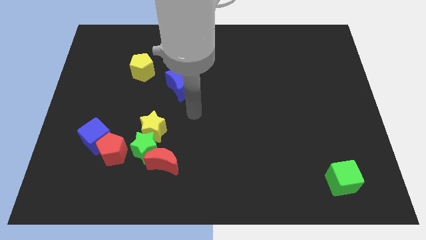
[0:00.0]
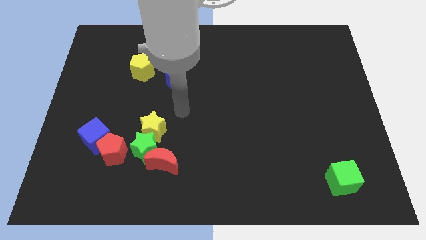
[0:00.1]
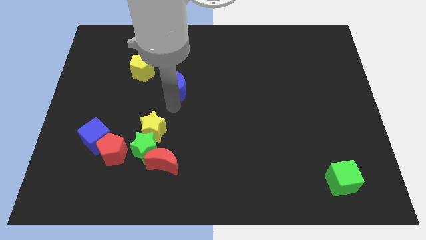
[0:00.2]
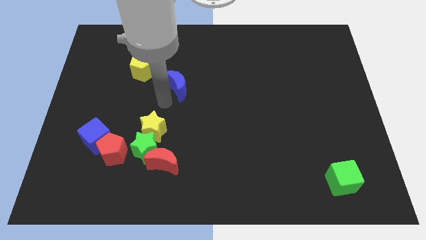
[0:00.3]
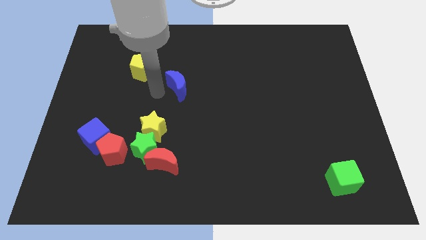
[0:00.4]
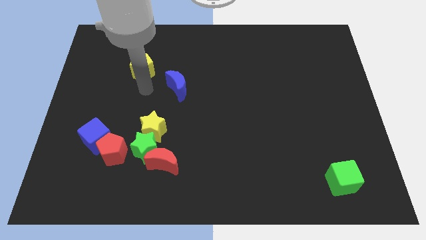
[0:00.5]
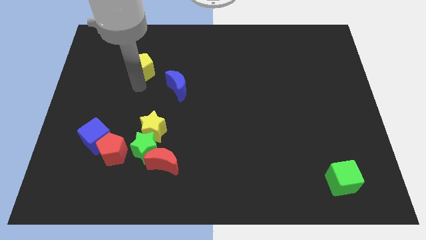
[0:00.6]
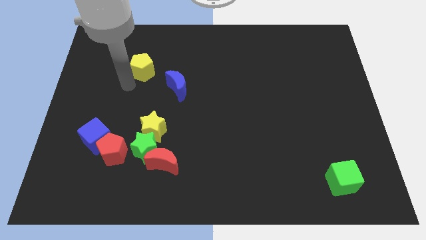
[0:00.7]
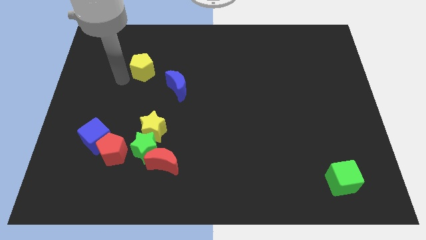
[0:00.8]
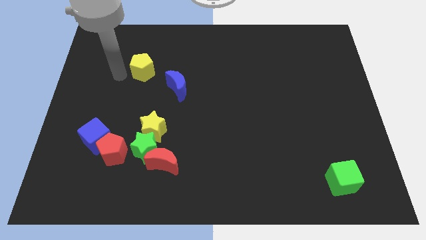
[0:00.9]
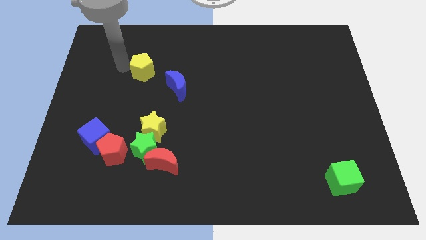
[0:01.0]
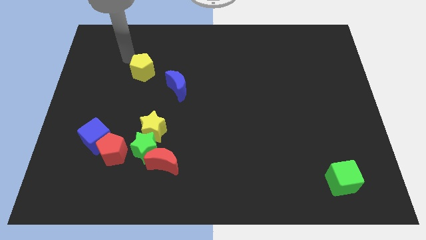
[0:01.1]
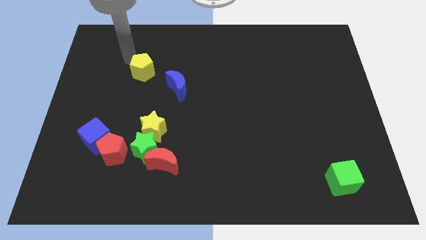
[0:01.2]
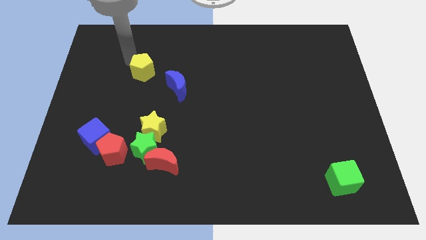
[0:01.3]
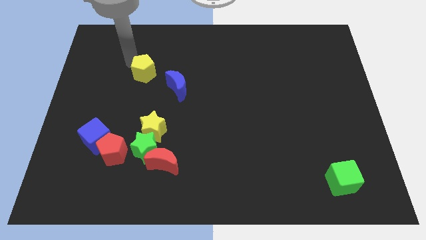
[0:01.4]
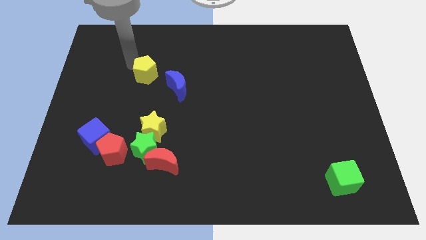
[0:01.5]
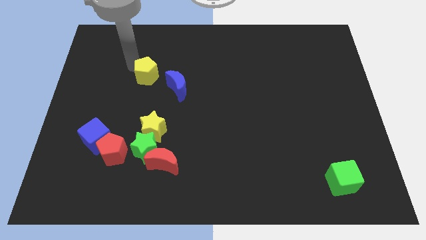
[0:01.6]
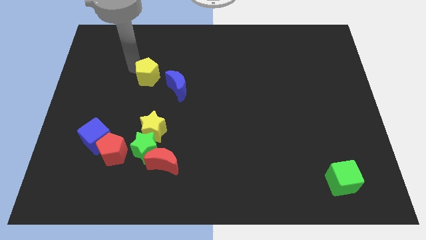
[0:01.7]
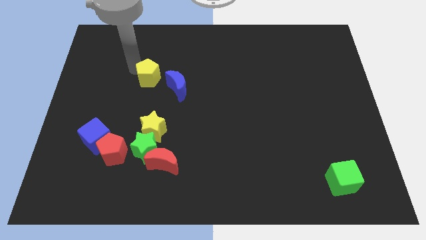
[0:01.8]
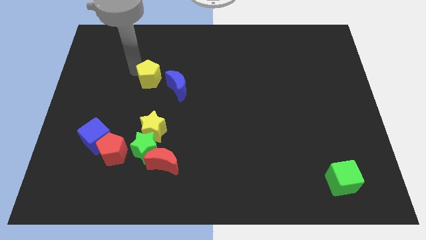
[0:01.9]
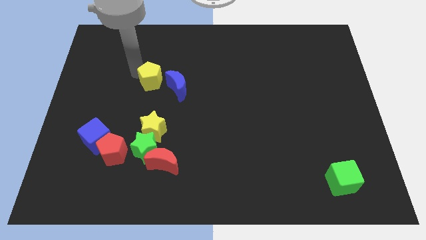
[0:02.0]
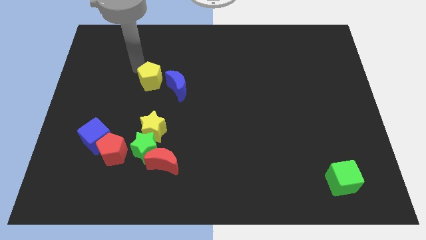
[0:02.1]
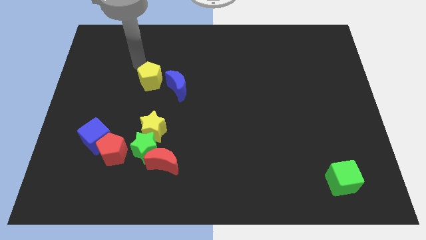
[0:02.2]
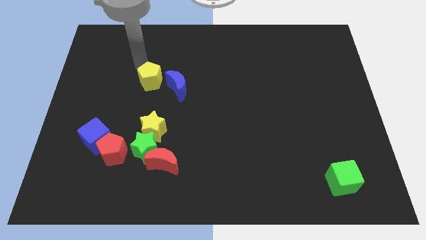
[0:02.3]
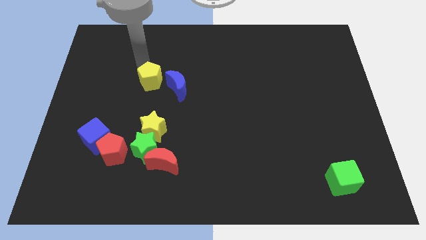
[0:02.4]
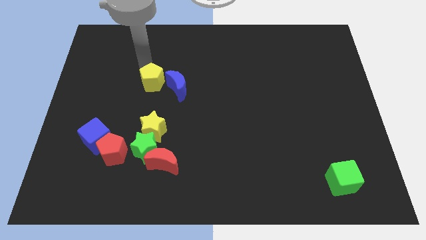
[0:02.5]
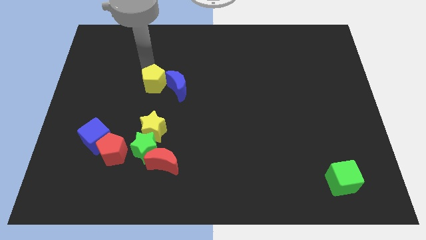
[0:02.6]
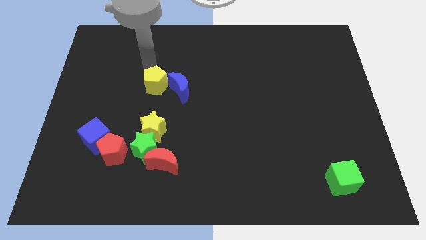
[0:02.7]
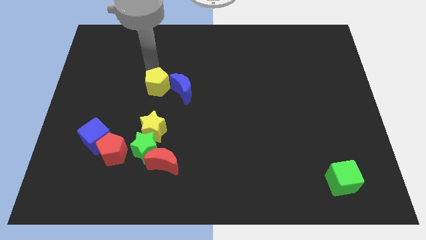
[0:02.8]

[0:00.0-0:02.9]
push the yellow pentagon downwards and then right somewhat

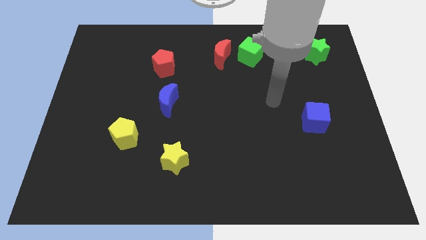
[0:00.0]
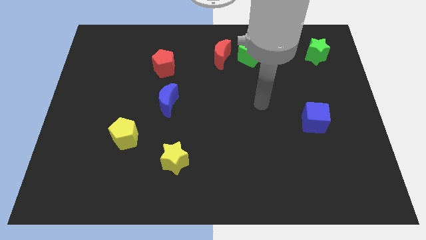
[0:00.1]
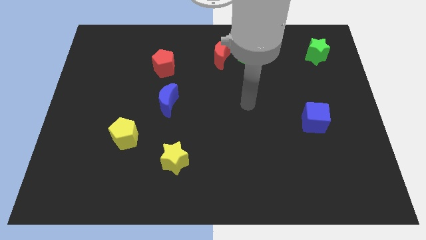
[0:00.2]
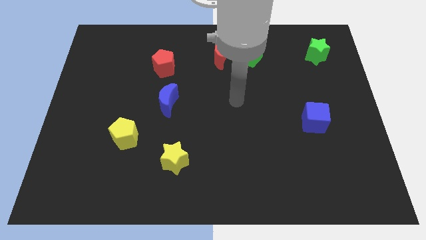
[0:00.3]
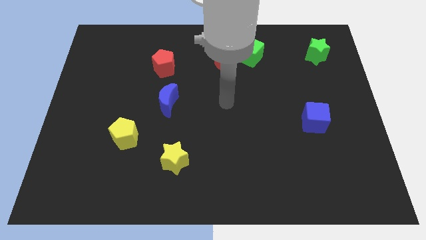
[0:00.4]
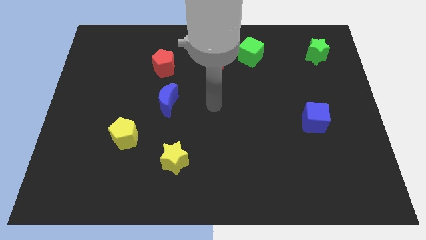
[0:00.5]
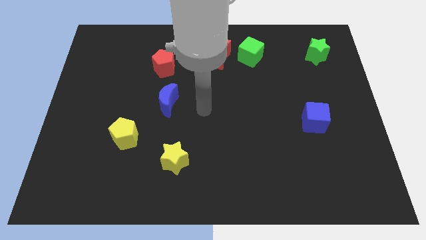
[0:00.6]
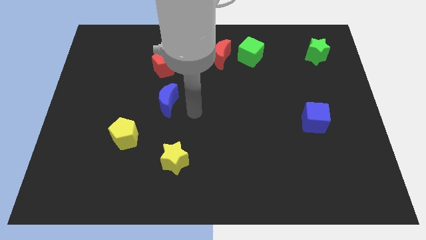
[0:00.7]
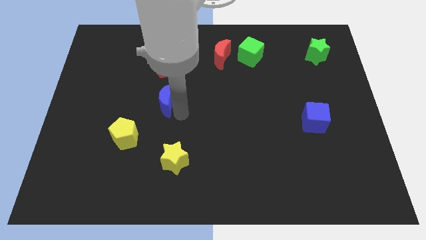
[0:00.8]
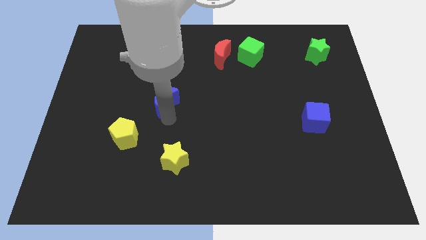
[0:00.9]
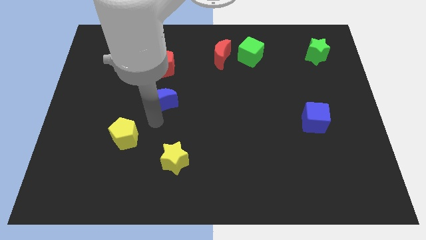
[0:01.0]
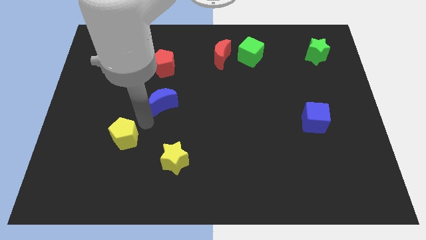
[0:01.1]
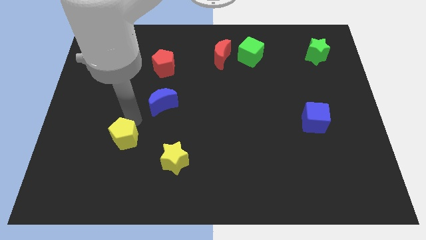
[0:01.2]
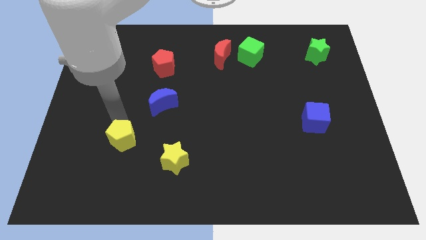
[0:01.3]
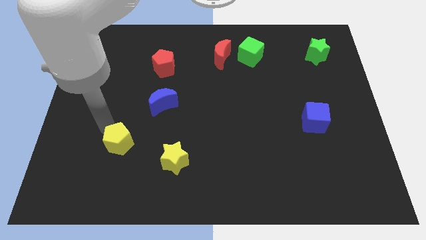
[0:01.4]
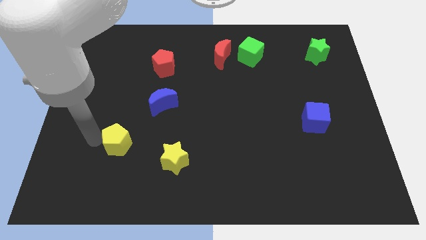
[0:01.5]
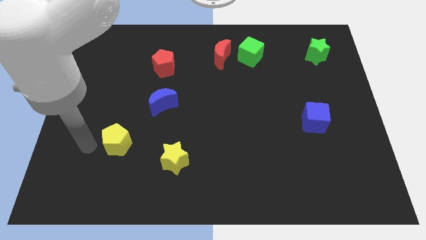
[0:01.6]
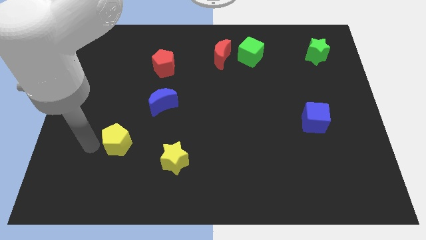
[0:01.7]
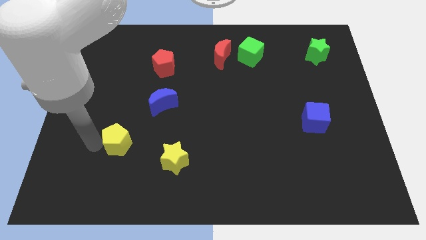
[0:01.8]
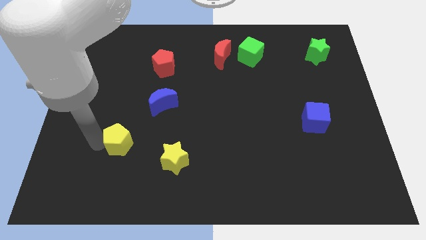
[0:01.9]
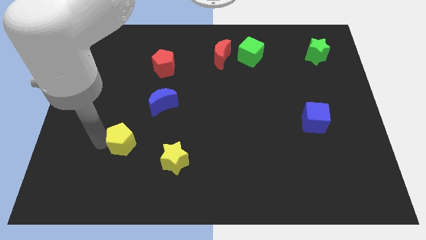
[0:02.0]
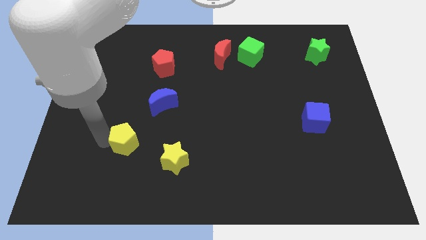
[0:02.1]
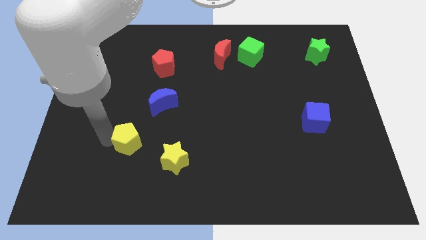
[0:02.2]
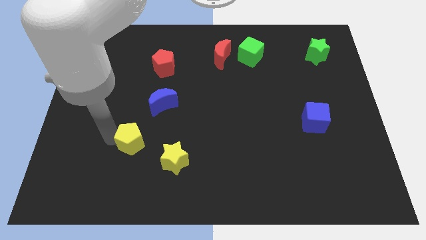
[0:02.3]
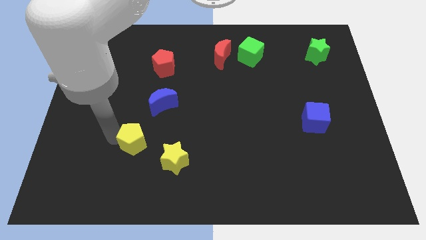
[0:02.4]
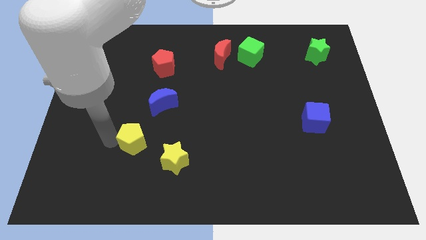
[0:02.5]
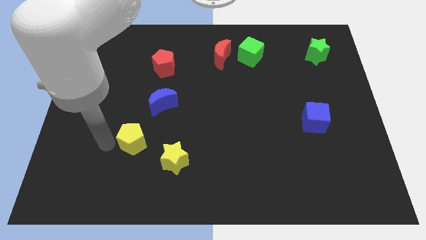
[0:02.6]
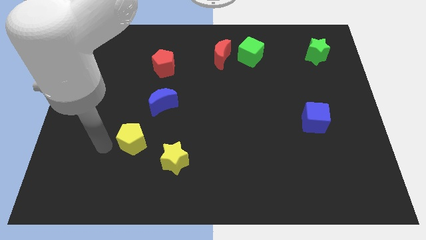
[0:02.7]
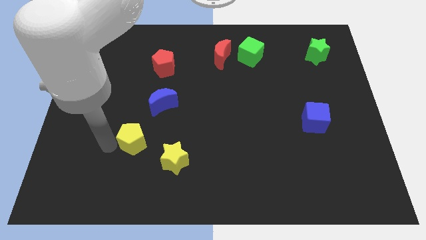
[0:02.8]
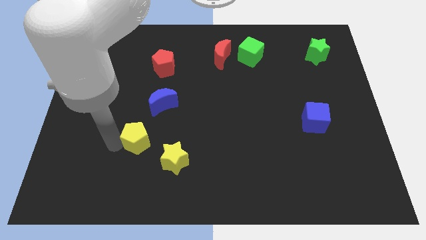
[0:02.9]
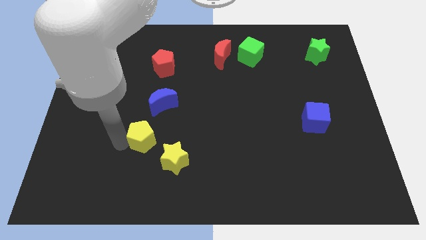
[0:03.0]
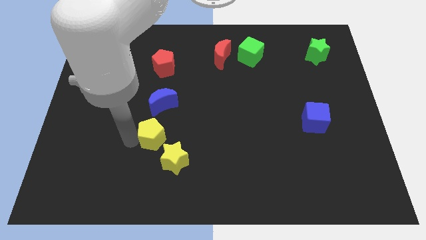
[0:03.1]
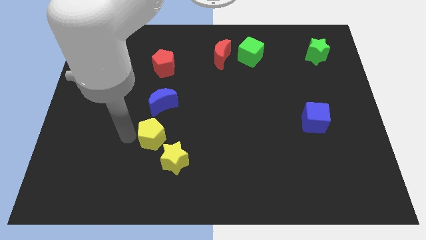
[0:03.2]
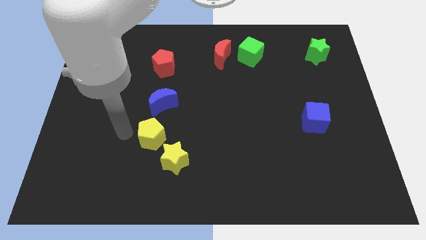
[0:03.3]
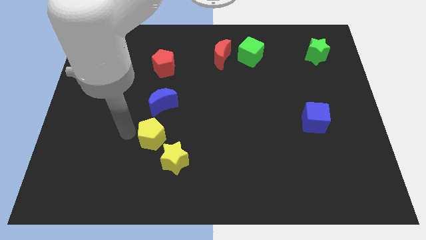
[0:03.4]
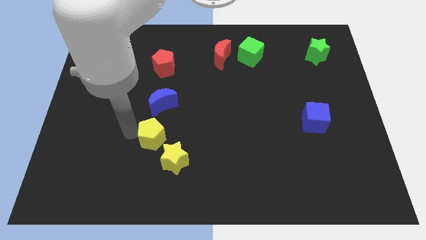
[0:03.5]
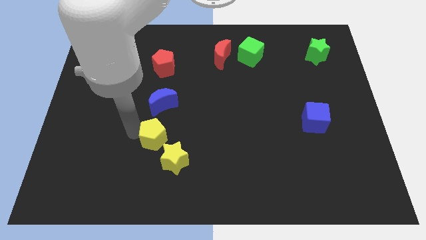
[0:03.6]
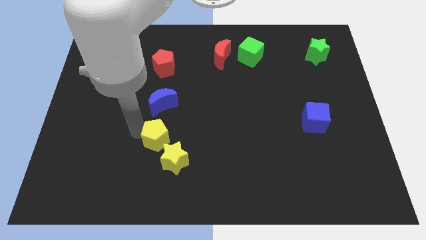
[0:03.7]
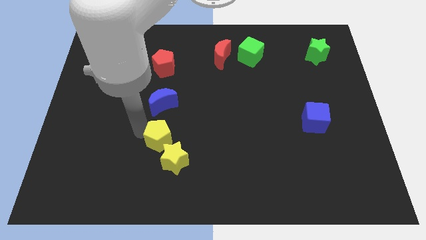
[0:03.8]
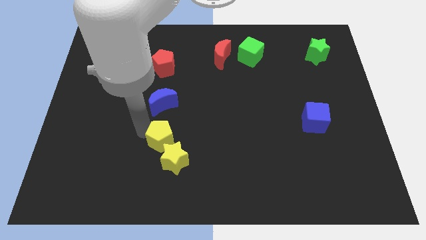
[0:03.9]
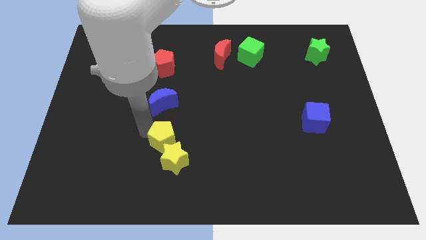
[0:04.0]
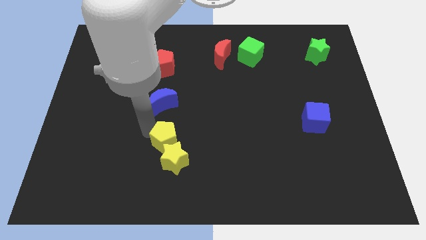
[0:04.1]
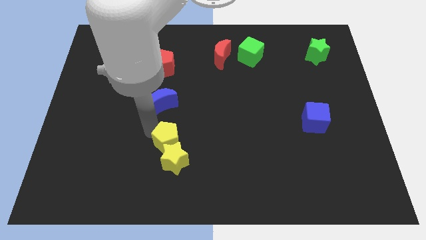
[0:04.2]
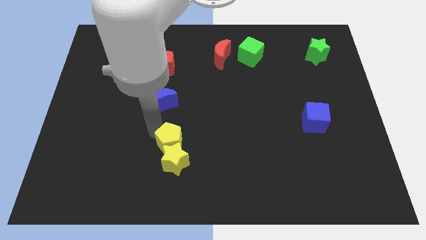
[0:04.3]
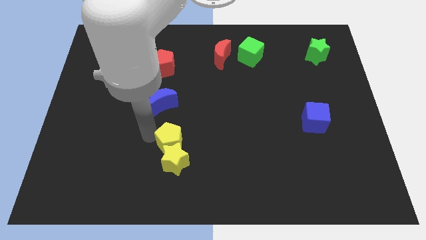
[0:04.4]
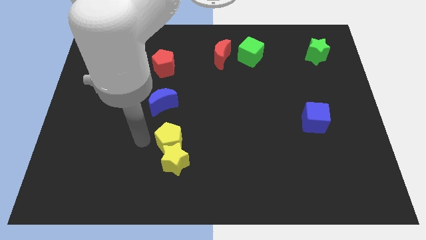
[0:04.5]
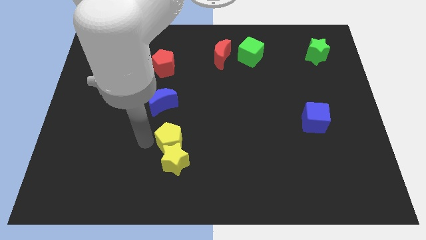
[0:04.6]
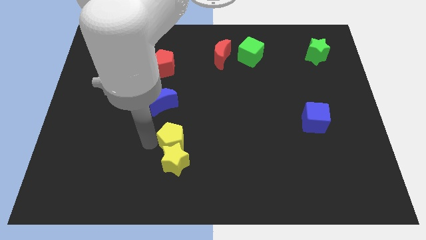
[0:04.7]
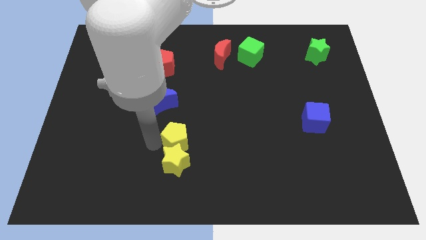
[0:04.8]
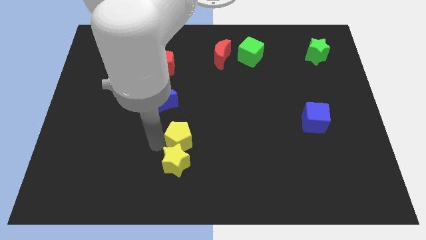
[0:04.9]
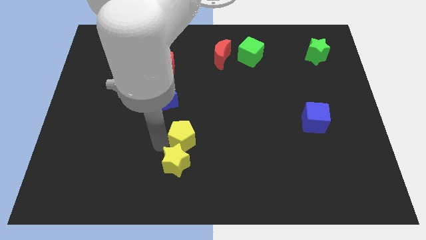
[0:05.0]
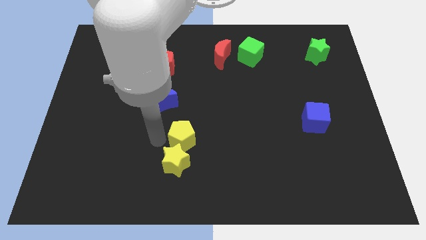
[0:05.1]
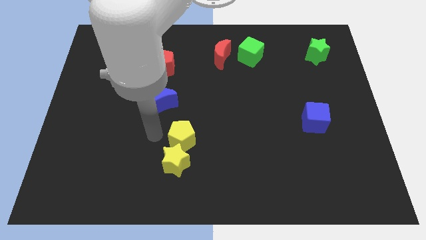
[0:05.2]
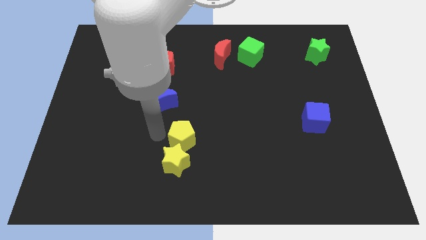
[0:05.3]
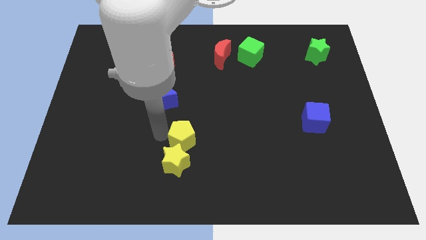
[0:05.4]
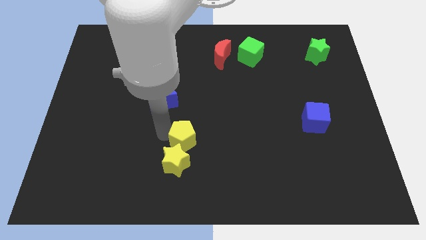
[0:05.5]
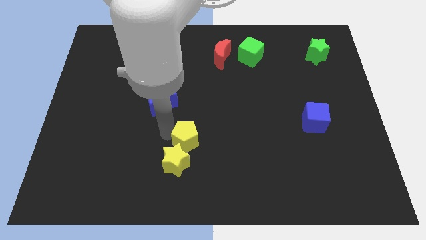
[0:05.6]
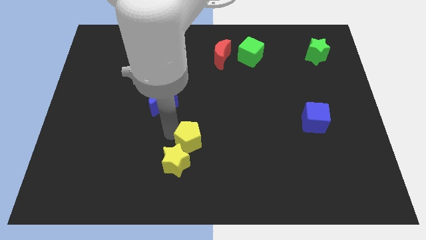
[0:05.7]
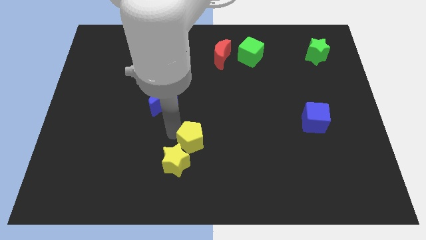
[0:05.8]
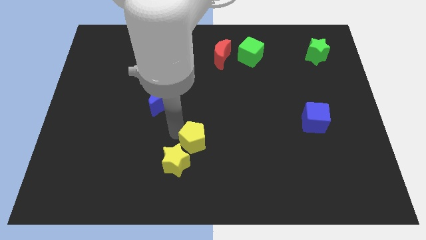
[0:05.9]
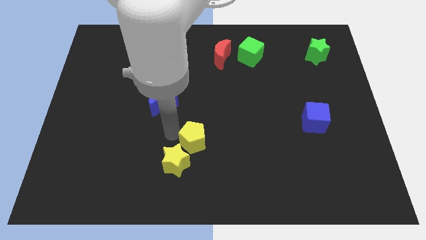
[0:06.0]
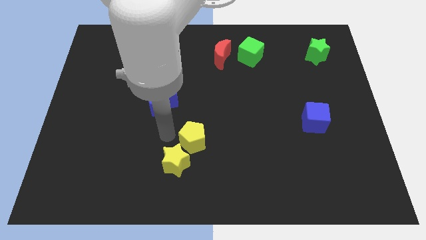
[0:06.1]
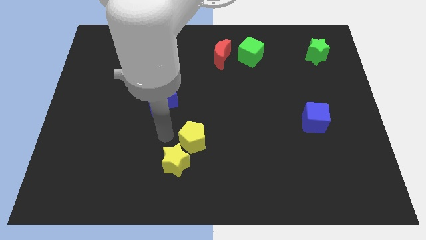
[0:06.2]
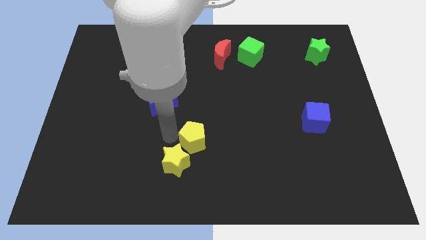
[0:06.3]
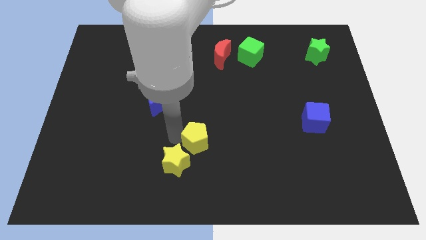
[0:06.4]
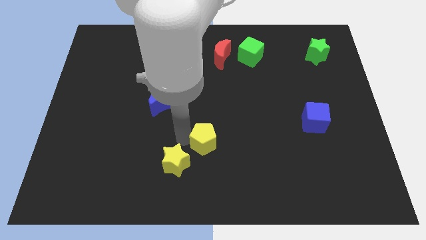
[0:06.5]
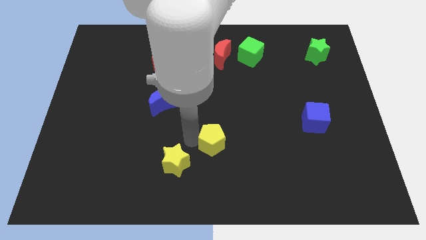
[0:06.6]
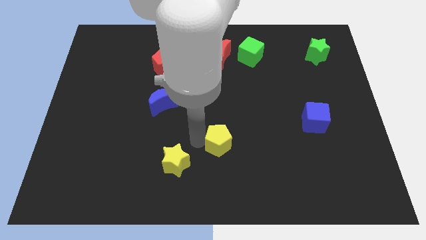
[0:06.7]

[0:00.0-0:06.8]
slide the yellow pentagon right
